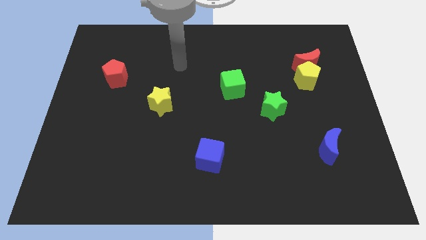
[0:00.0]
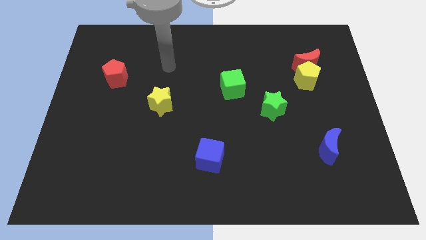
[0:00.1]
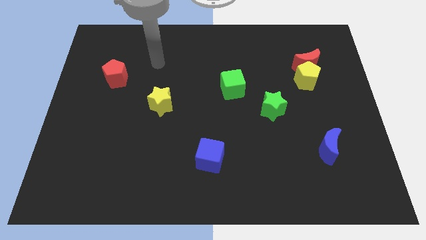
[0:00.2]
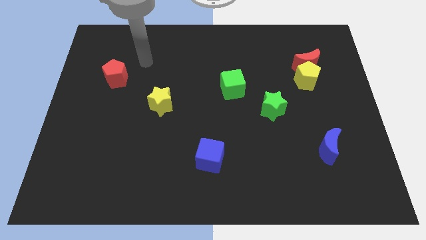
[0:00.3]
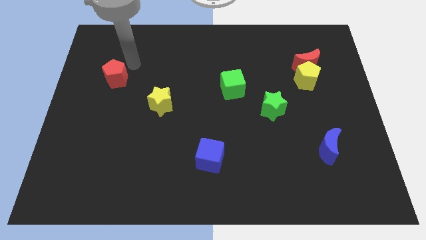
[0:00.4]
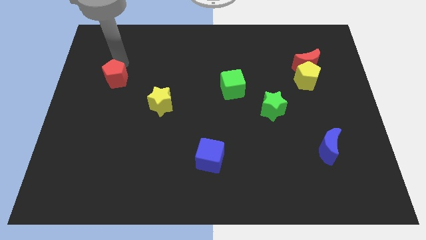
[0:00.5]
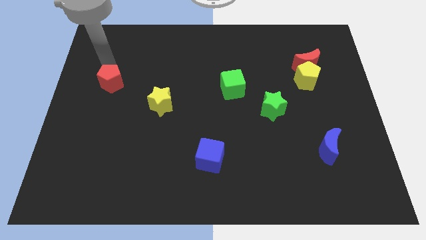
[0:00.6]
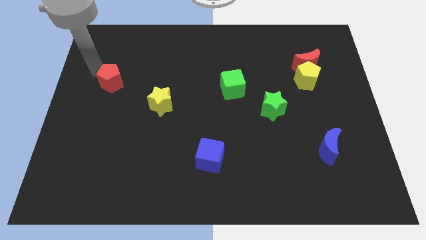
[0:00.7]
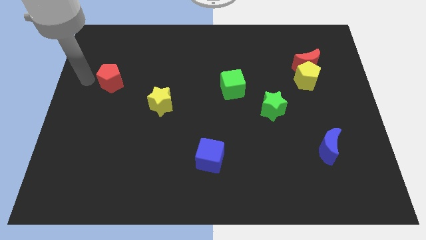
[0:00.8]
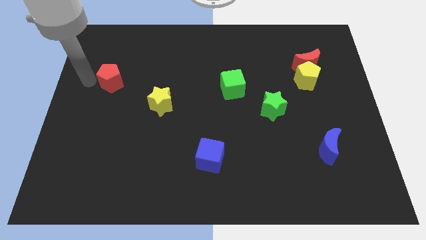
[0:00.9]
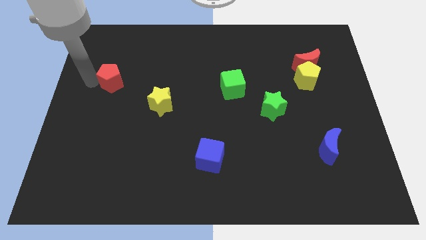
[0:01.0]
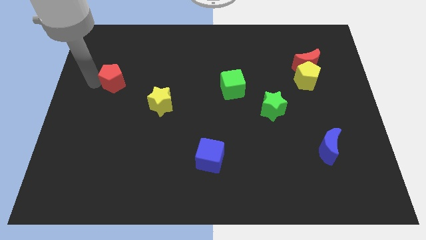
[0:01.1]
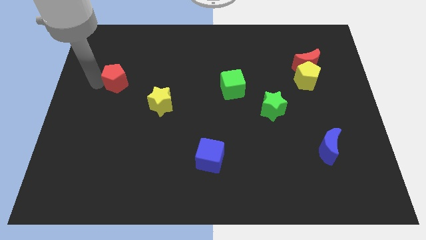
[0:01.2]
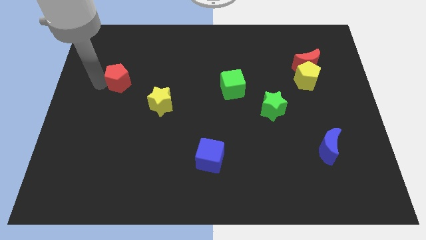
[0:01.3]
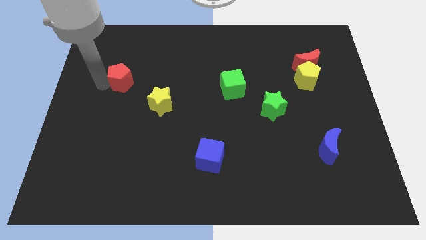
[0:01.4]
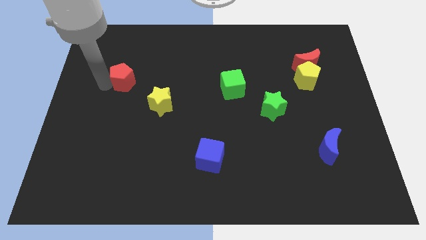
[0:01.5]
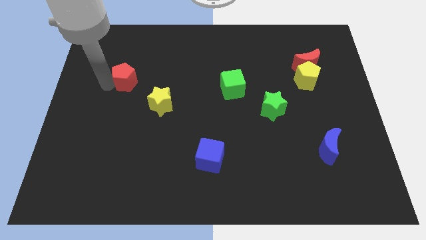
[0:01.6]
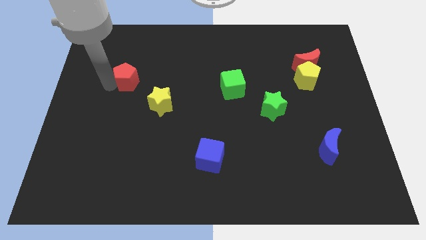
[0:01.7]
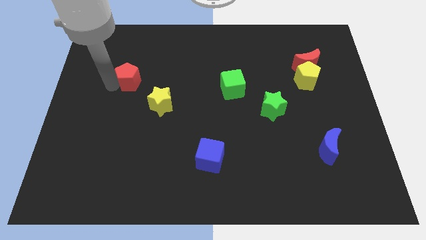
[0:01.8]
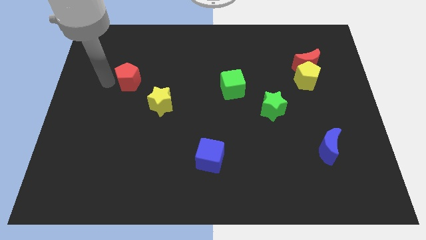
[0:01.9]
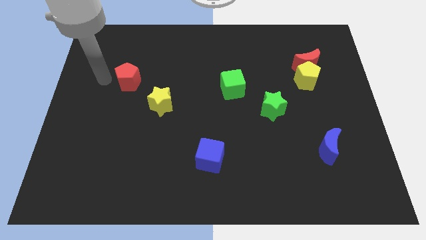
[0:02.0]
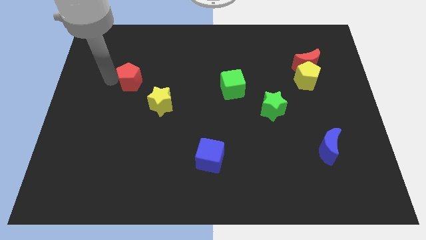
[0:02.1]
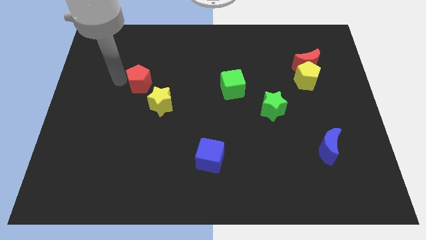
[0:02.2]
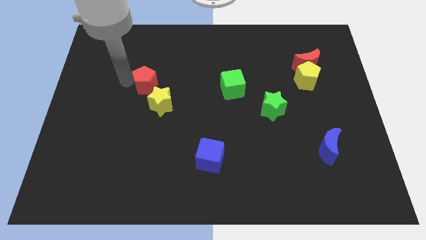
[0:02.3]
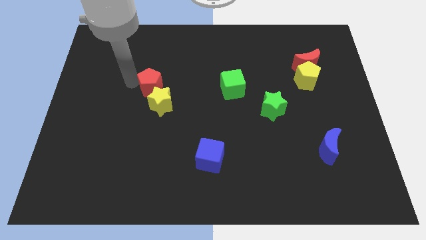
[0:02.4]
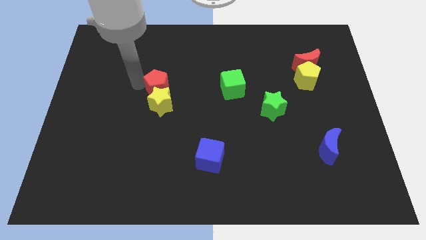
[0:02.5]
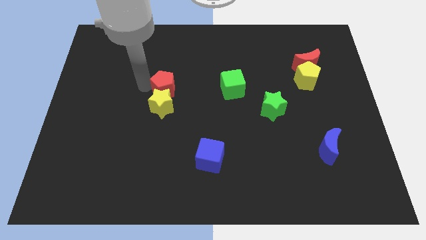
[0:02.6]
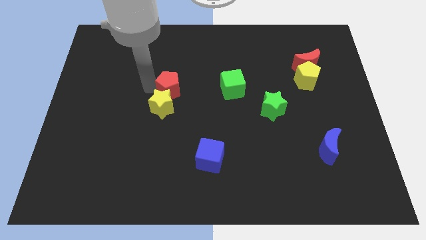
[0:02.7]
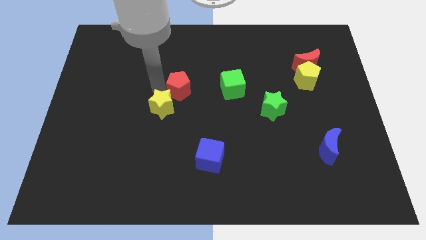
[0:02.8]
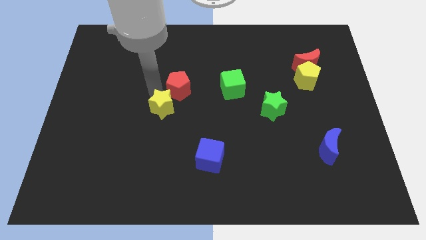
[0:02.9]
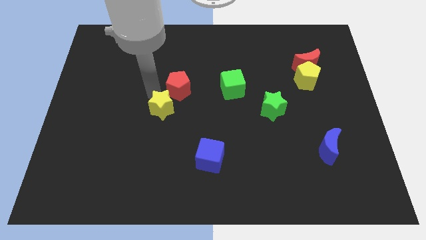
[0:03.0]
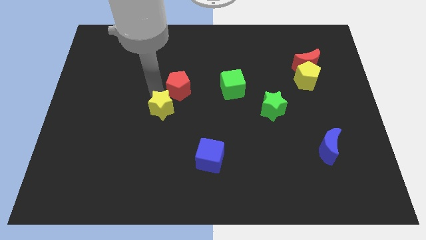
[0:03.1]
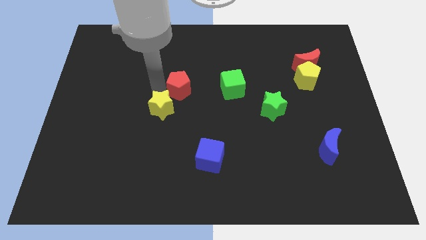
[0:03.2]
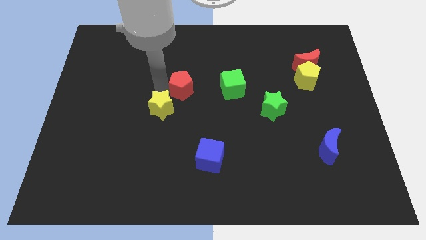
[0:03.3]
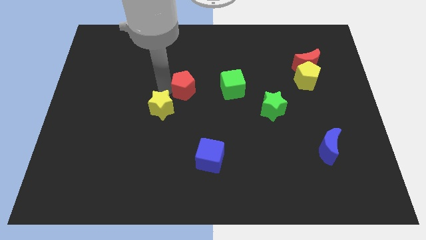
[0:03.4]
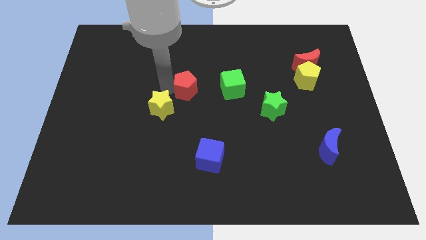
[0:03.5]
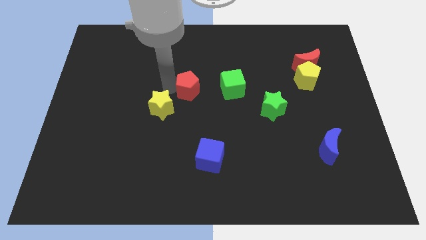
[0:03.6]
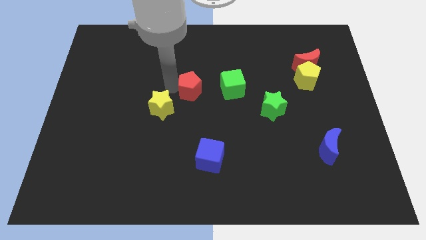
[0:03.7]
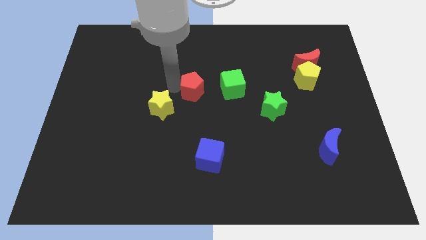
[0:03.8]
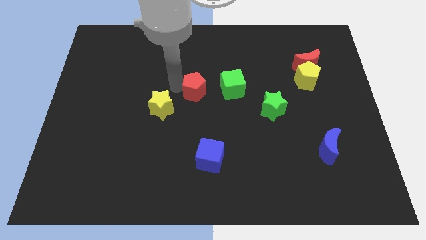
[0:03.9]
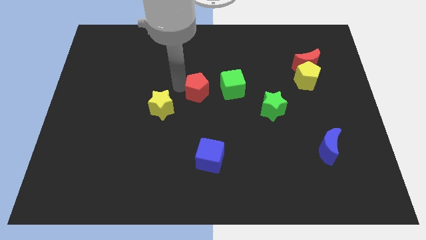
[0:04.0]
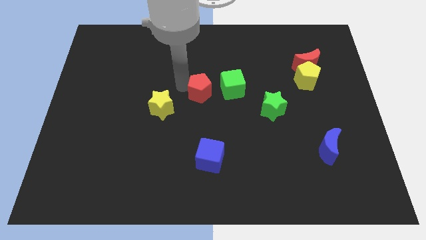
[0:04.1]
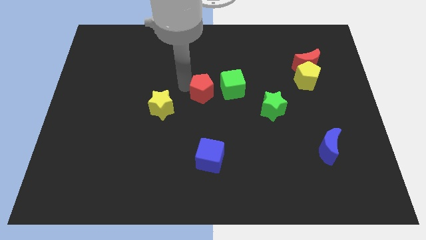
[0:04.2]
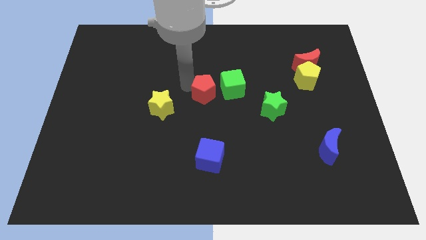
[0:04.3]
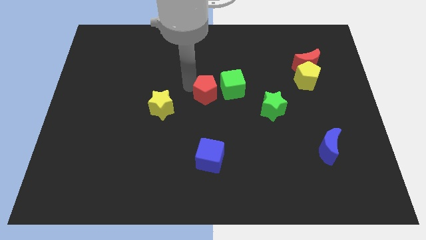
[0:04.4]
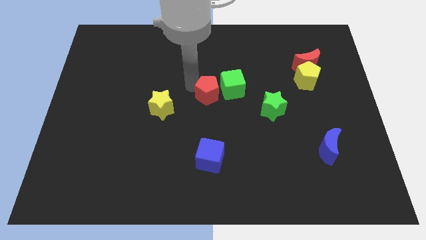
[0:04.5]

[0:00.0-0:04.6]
slide the red pentagon close to the green cube

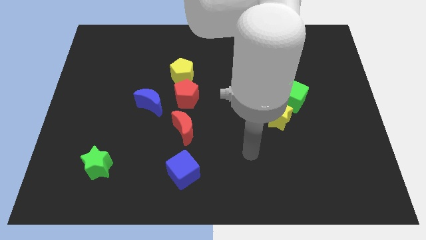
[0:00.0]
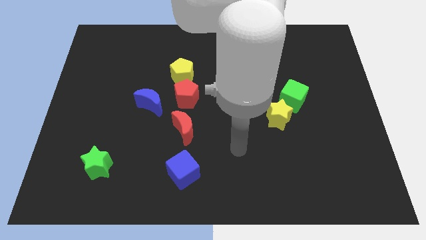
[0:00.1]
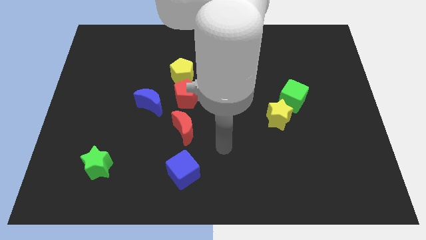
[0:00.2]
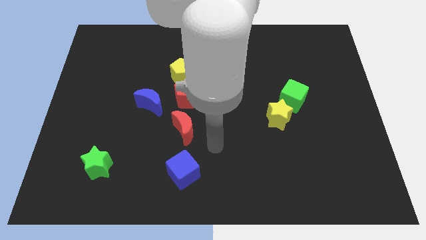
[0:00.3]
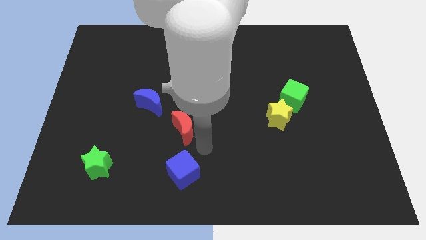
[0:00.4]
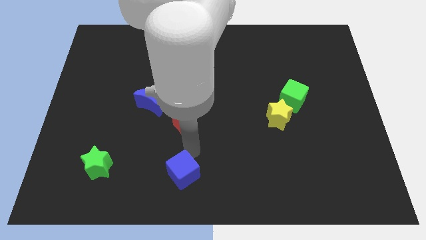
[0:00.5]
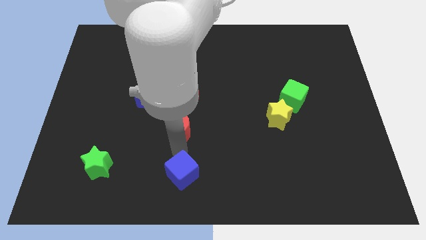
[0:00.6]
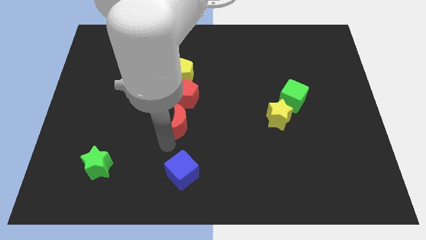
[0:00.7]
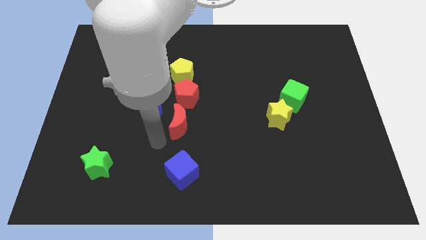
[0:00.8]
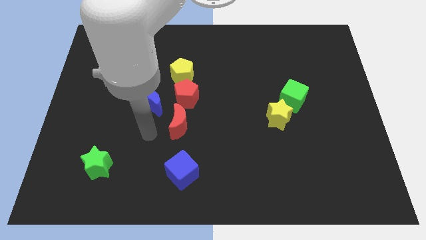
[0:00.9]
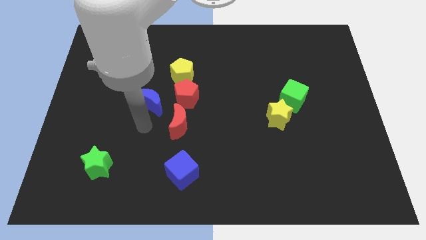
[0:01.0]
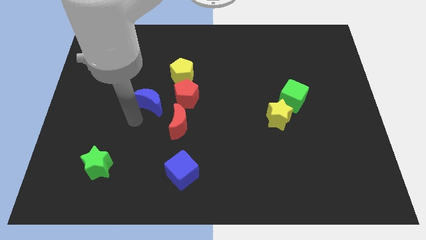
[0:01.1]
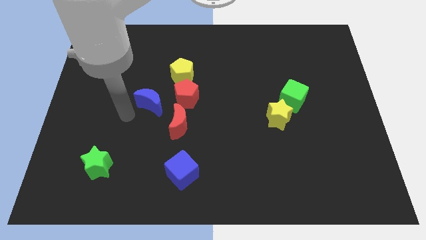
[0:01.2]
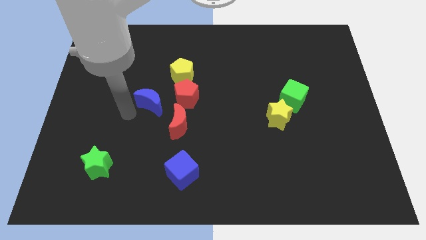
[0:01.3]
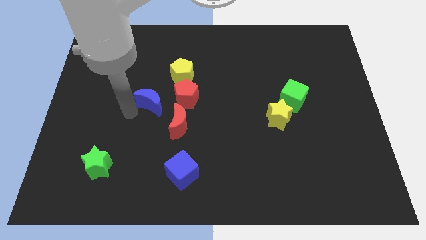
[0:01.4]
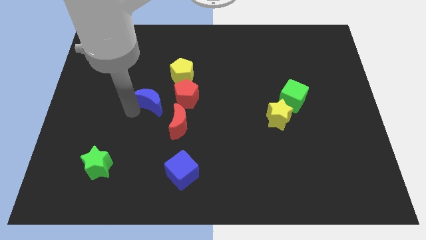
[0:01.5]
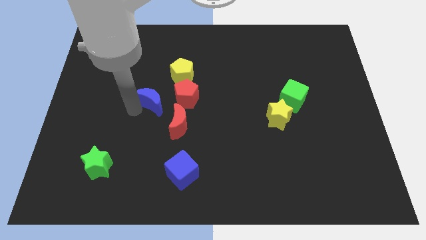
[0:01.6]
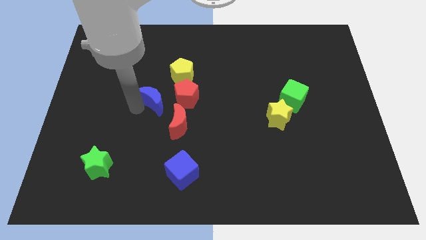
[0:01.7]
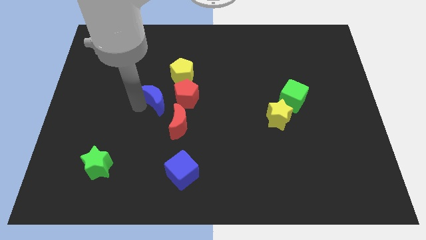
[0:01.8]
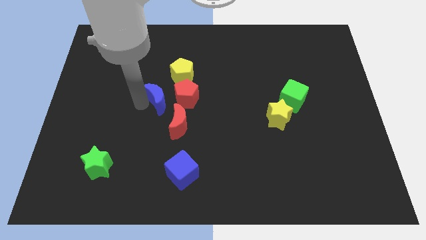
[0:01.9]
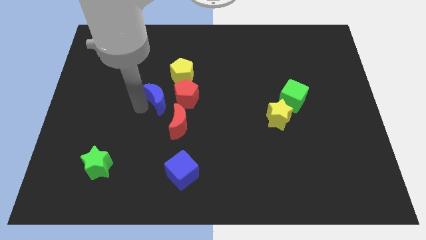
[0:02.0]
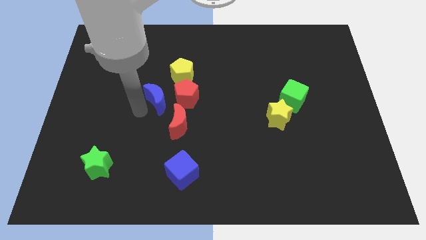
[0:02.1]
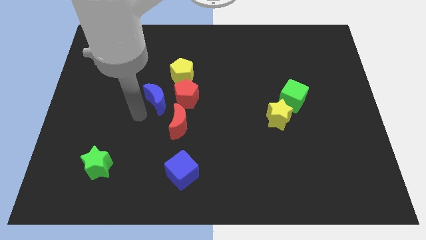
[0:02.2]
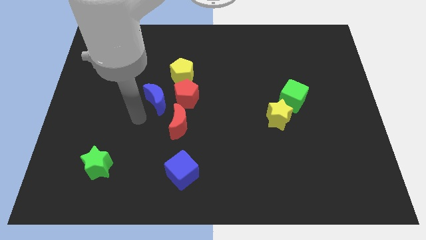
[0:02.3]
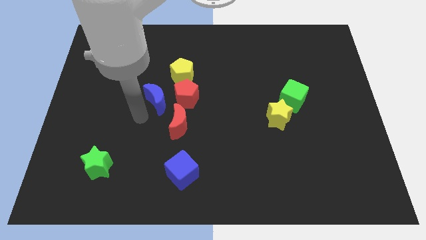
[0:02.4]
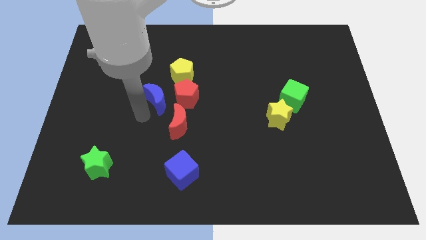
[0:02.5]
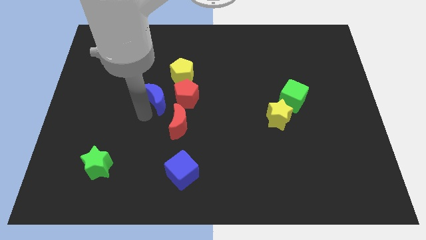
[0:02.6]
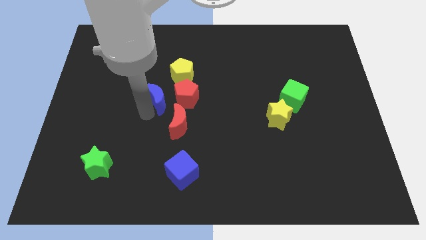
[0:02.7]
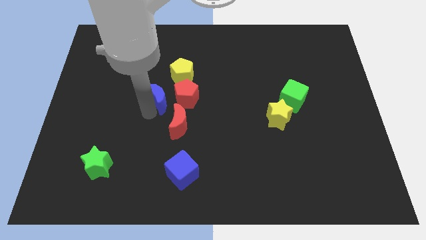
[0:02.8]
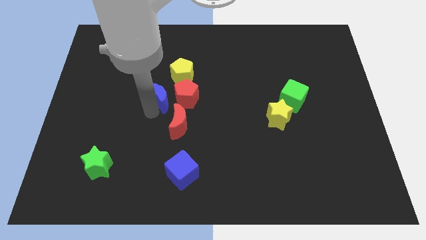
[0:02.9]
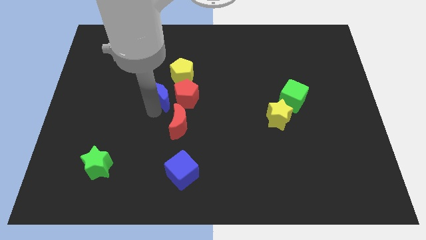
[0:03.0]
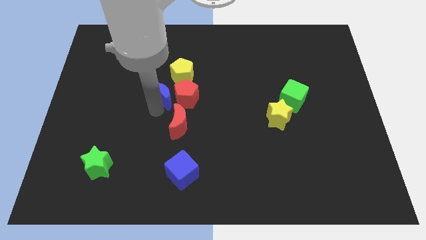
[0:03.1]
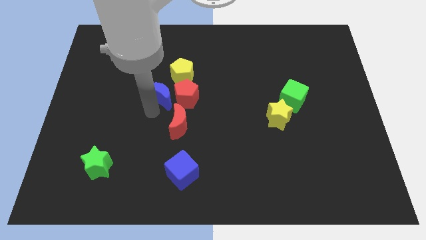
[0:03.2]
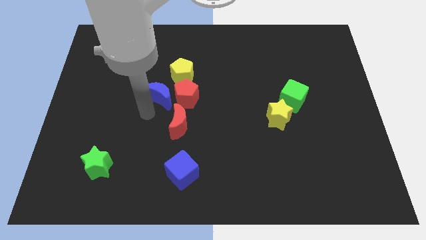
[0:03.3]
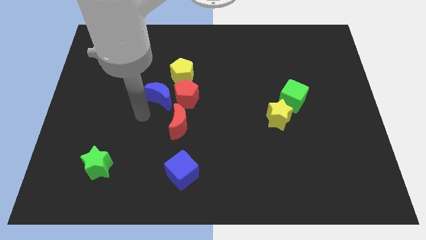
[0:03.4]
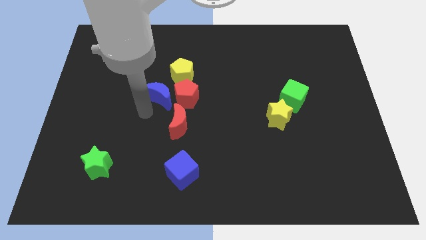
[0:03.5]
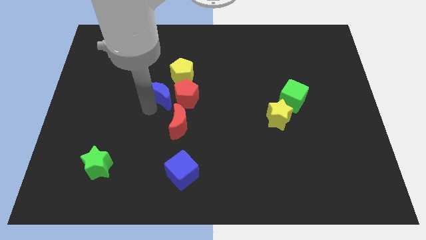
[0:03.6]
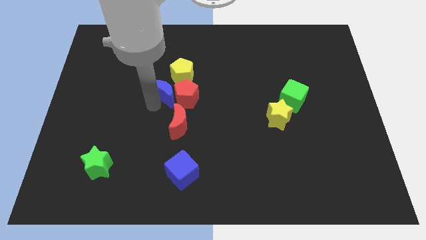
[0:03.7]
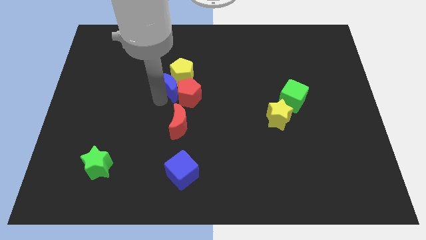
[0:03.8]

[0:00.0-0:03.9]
put the blue moon towards the yellow pentagon
